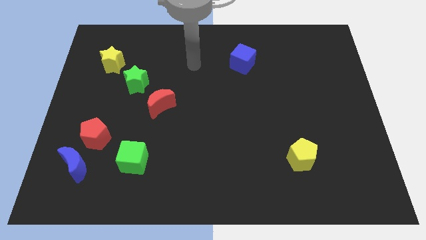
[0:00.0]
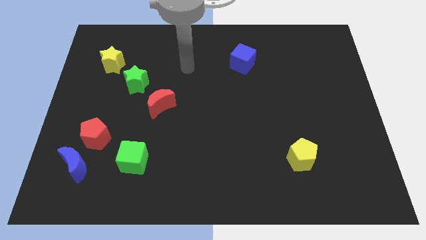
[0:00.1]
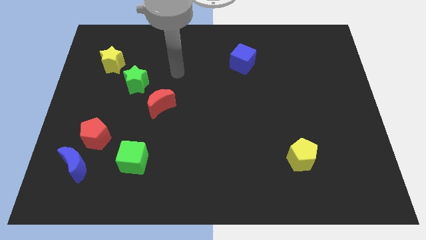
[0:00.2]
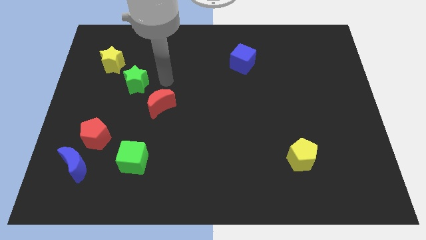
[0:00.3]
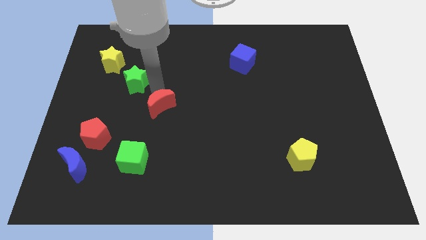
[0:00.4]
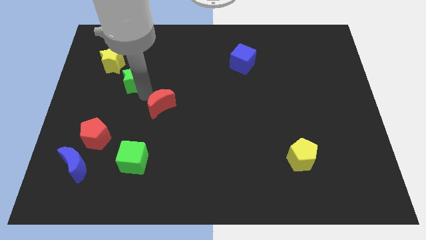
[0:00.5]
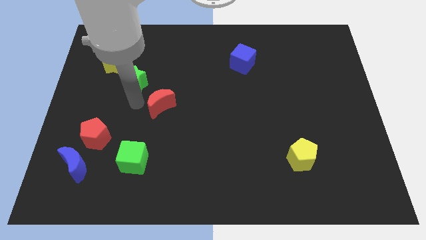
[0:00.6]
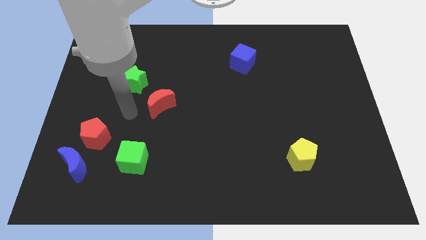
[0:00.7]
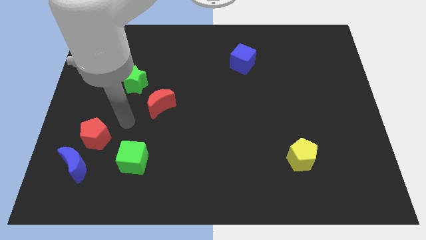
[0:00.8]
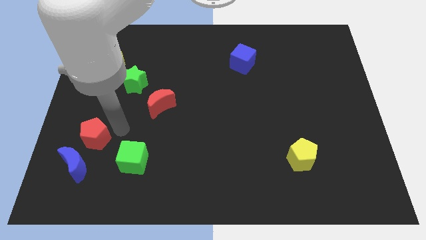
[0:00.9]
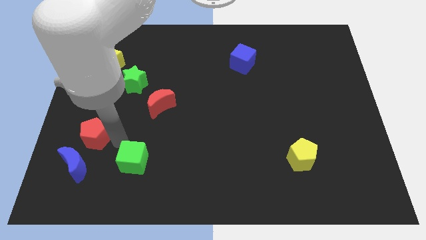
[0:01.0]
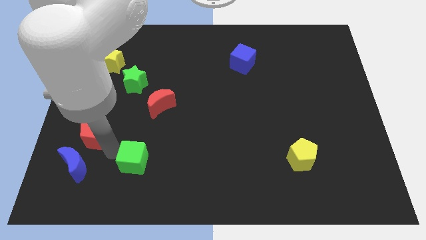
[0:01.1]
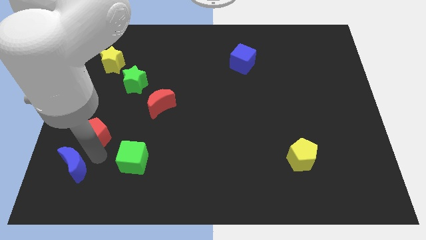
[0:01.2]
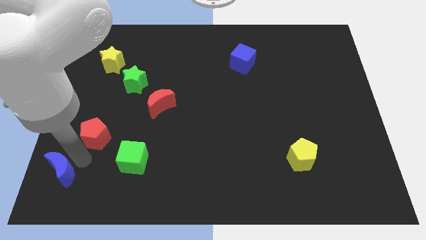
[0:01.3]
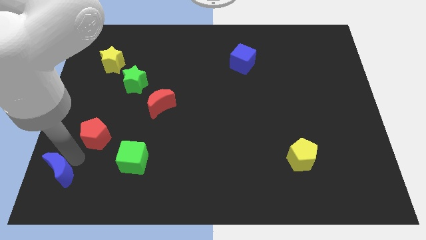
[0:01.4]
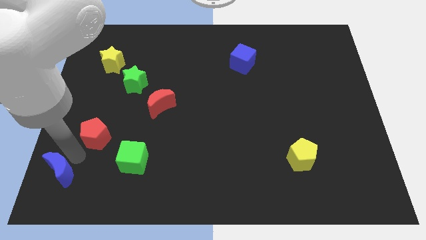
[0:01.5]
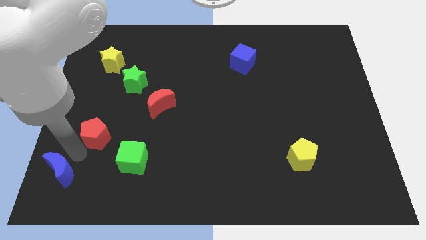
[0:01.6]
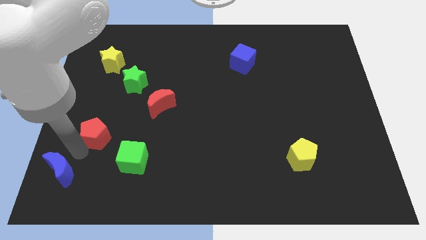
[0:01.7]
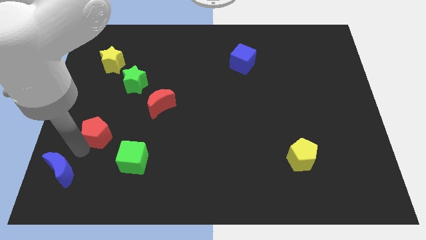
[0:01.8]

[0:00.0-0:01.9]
separate the red pentagon from the blue moon

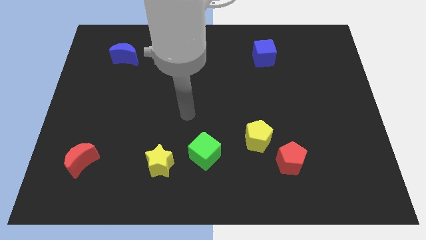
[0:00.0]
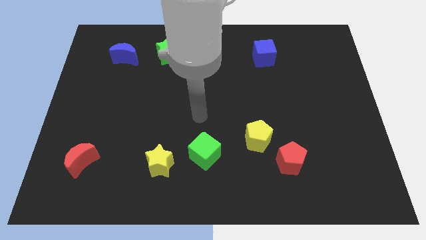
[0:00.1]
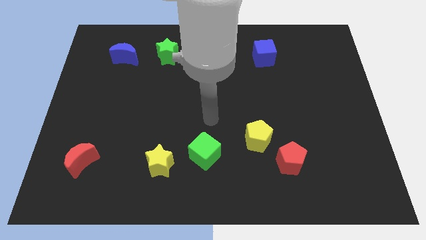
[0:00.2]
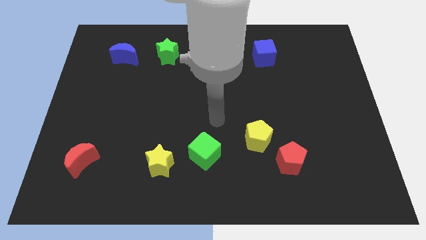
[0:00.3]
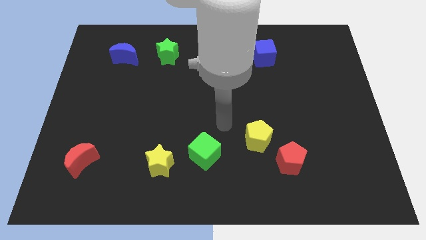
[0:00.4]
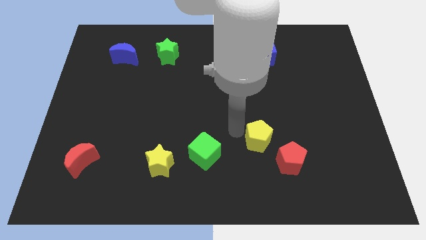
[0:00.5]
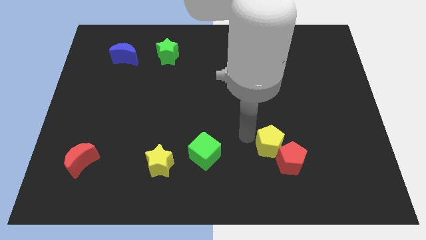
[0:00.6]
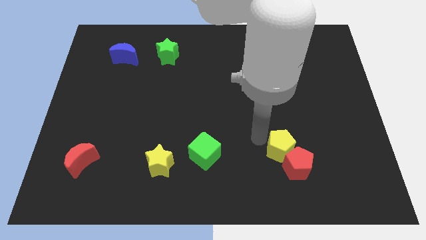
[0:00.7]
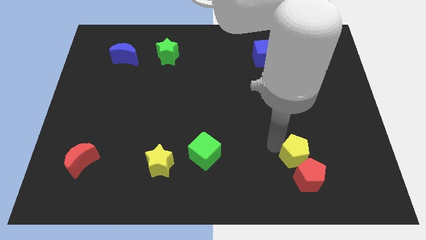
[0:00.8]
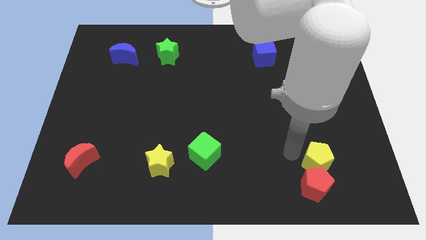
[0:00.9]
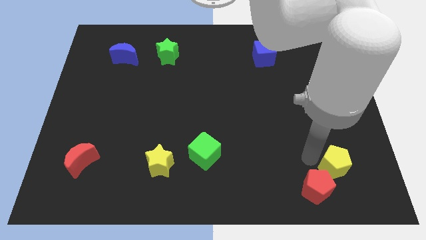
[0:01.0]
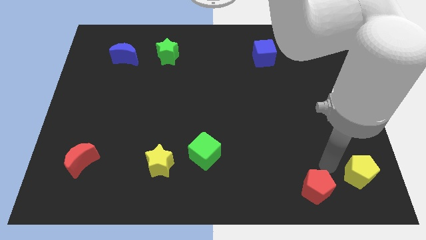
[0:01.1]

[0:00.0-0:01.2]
move the red pentagon away from the yellow pentagon

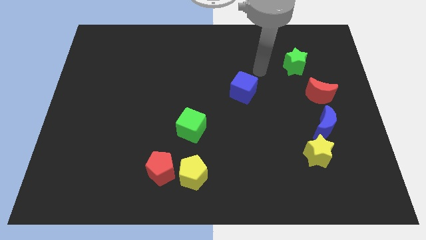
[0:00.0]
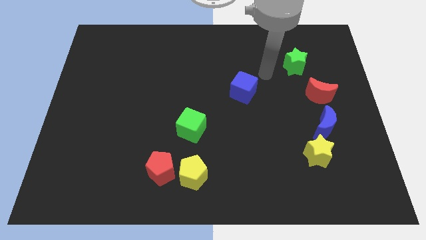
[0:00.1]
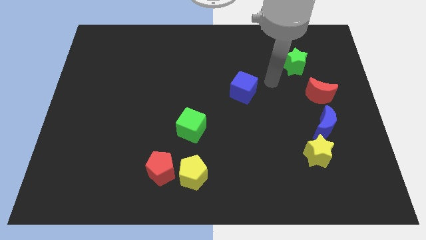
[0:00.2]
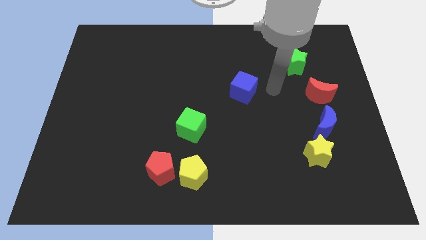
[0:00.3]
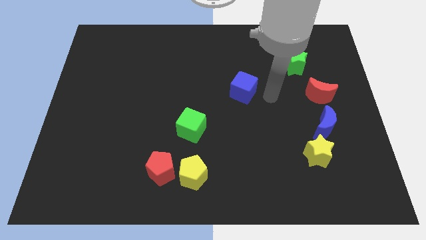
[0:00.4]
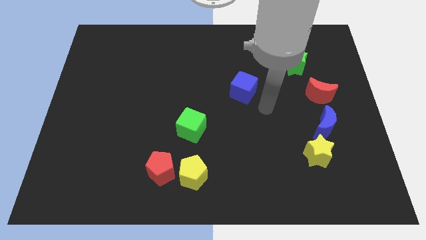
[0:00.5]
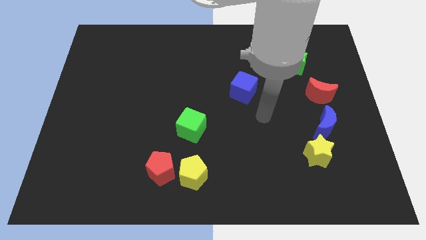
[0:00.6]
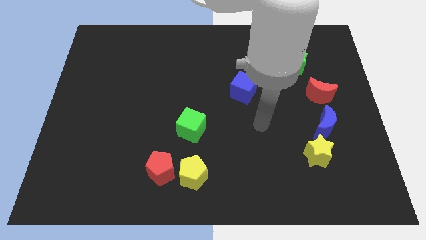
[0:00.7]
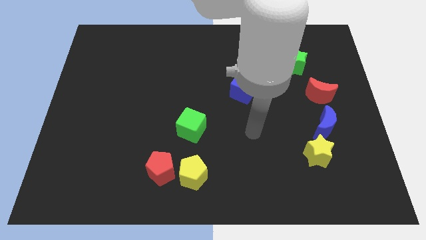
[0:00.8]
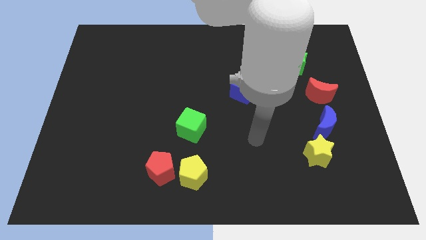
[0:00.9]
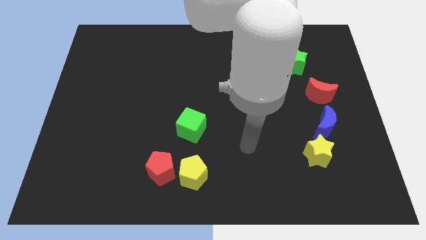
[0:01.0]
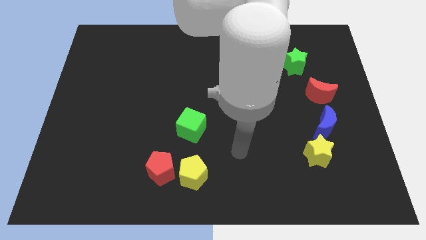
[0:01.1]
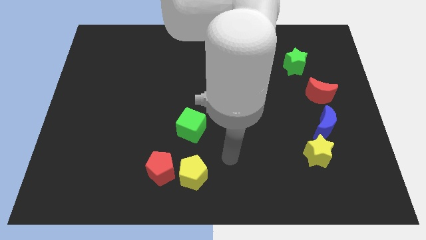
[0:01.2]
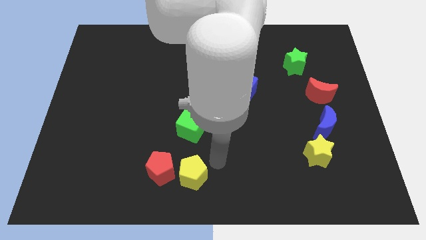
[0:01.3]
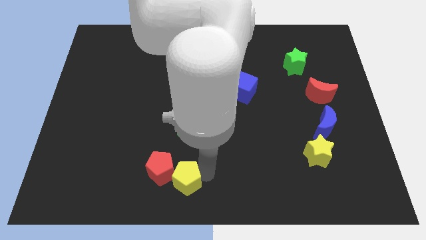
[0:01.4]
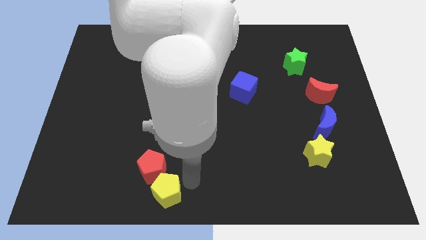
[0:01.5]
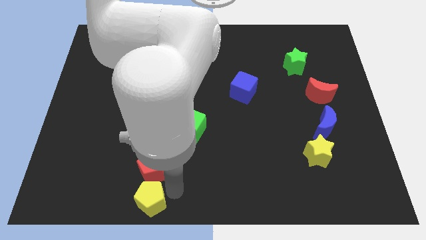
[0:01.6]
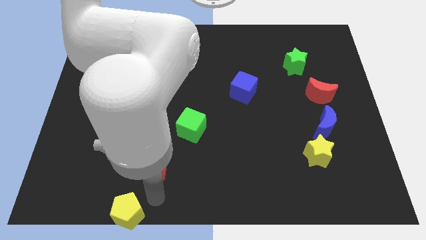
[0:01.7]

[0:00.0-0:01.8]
pull the red pentagon apart from the yellow pentagon

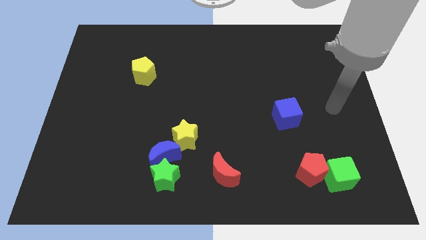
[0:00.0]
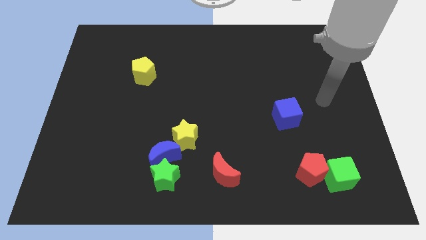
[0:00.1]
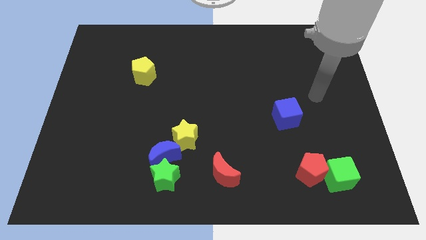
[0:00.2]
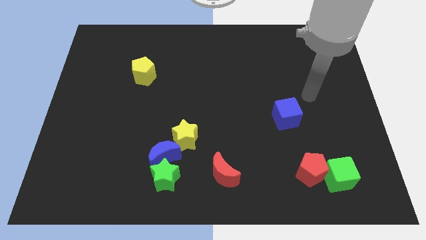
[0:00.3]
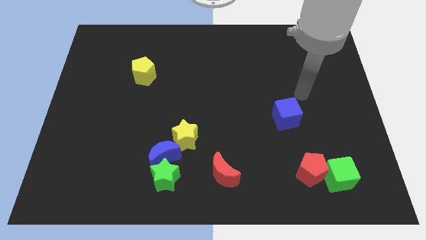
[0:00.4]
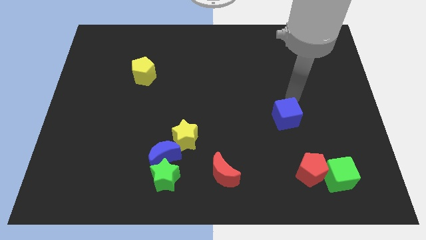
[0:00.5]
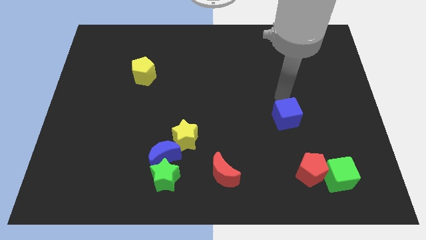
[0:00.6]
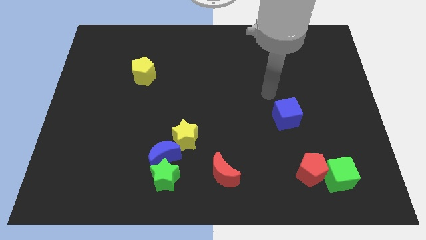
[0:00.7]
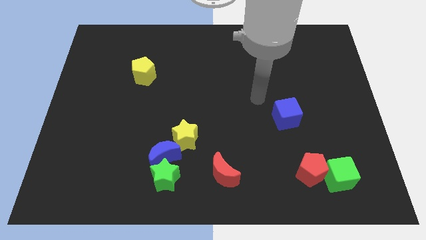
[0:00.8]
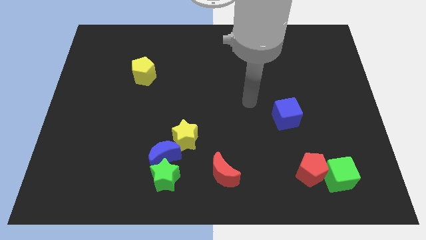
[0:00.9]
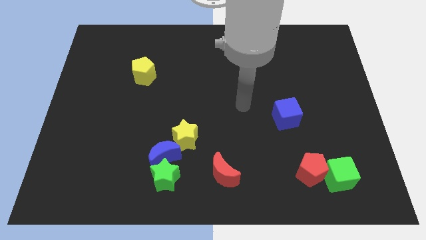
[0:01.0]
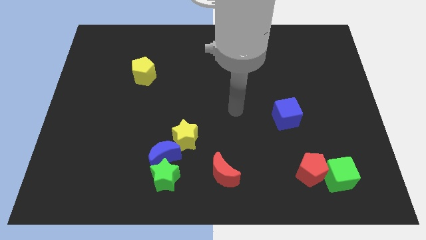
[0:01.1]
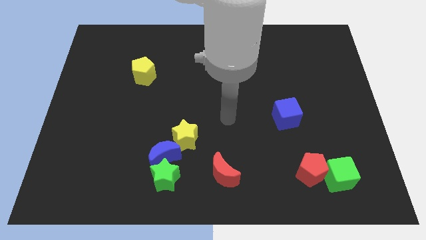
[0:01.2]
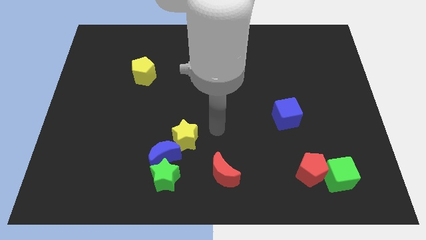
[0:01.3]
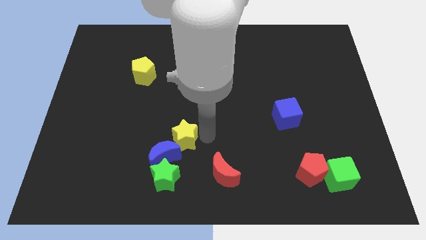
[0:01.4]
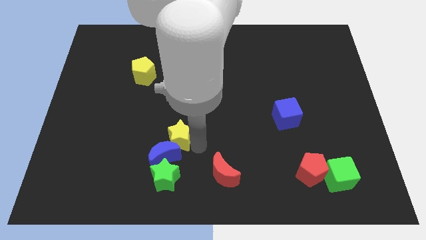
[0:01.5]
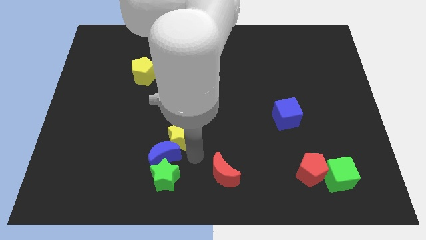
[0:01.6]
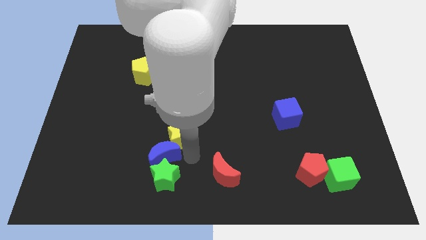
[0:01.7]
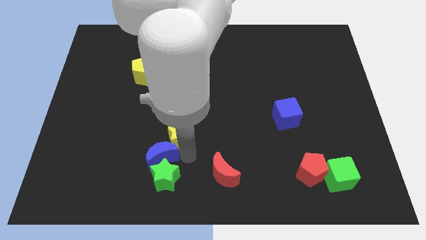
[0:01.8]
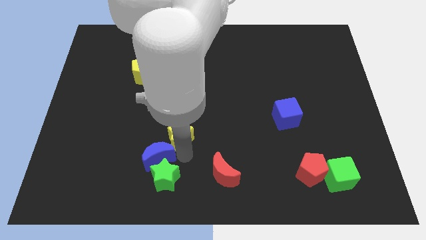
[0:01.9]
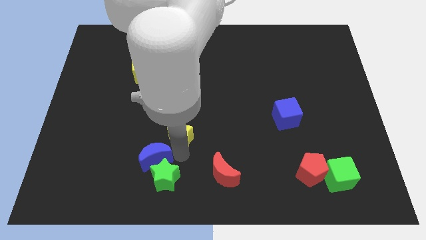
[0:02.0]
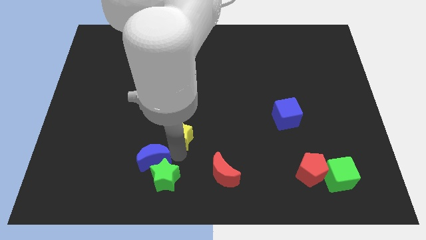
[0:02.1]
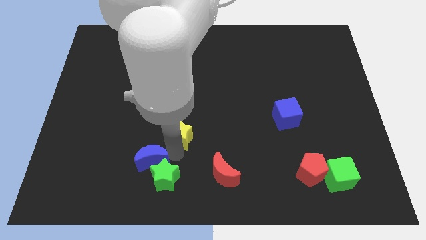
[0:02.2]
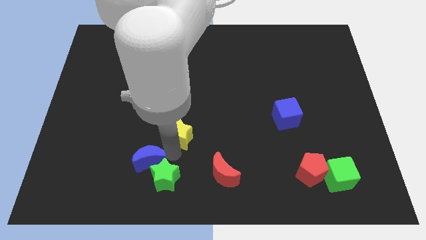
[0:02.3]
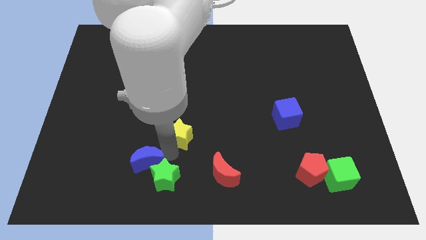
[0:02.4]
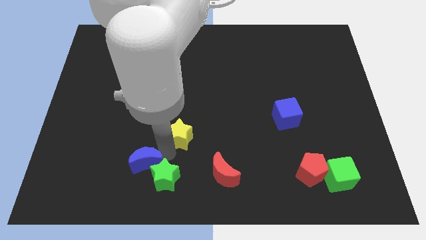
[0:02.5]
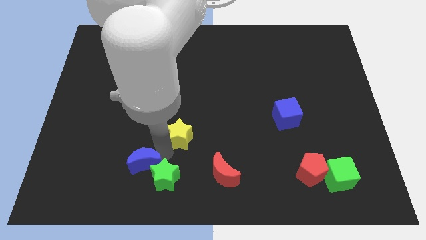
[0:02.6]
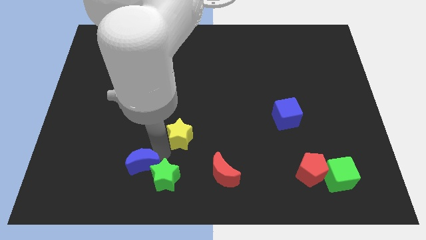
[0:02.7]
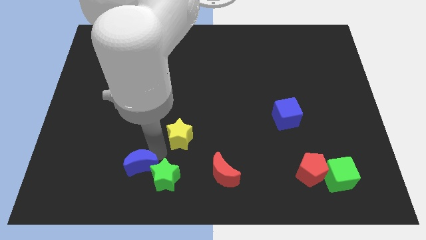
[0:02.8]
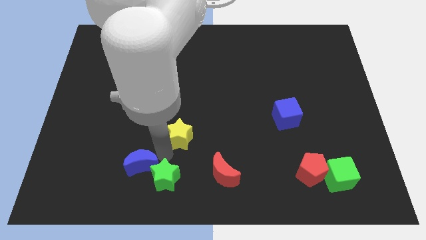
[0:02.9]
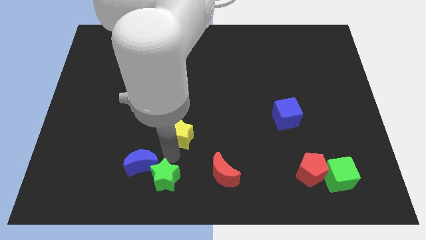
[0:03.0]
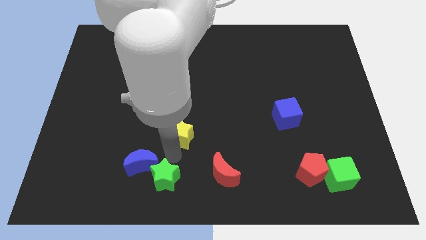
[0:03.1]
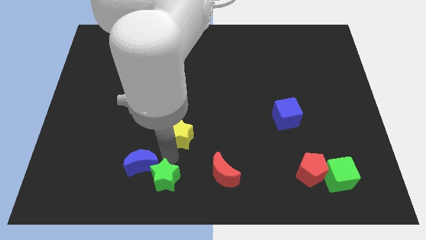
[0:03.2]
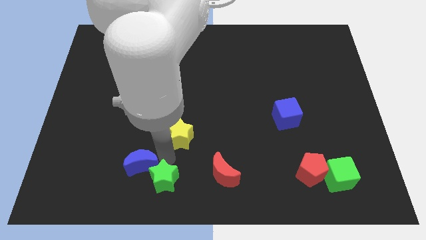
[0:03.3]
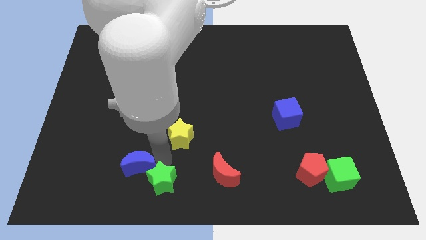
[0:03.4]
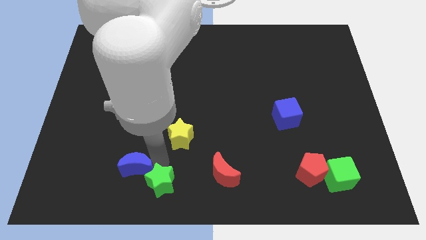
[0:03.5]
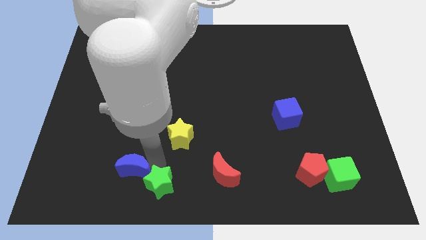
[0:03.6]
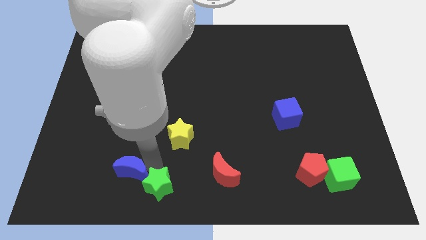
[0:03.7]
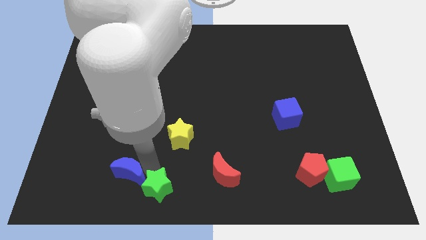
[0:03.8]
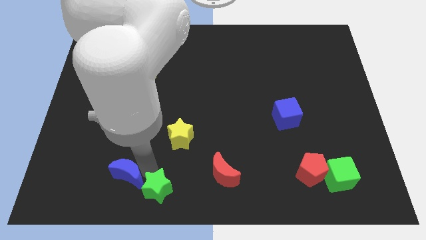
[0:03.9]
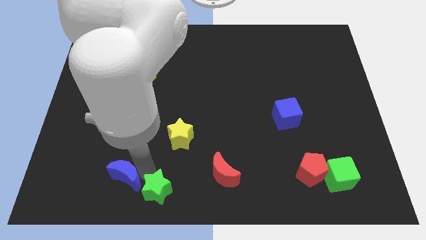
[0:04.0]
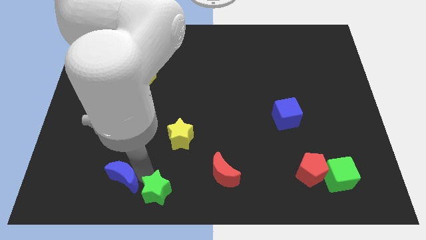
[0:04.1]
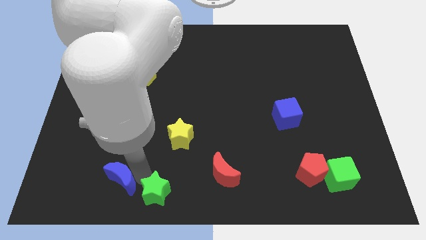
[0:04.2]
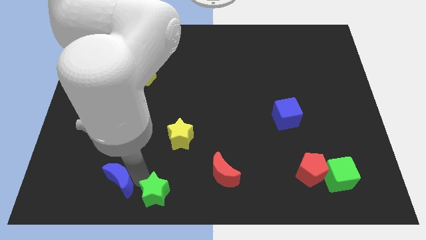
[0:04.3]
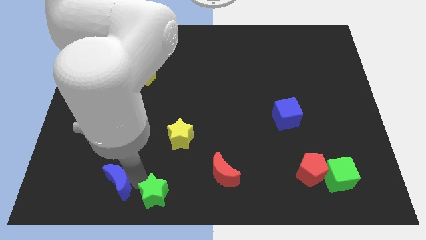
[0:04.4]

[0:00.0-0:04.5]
pull the blue moon apart from the green star and yellow star

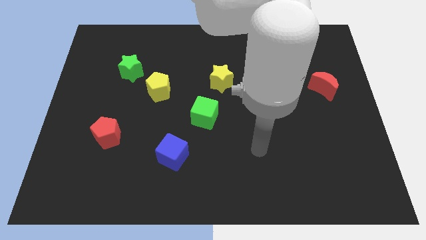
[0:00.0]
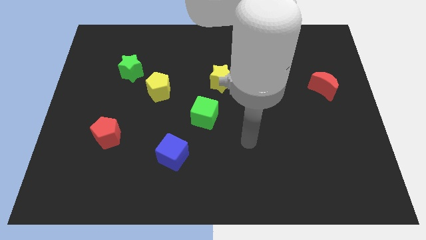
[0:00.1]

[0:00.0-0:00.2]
pull the green star apart from the yellow pentagon
